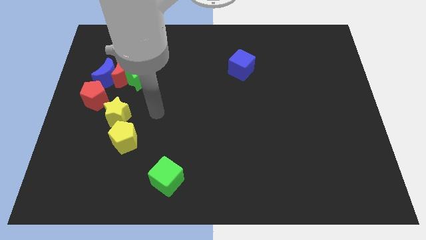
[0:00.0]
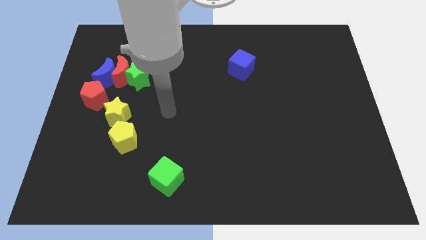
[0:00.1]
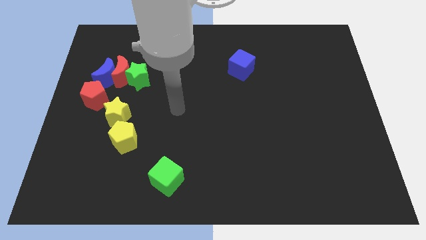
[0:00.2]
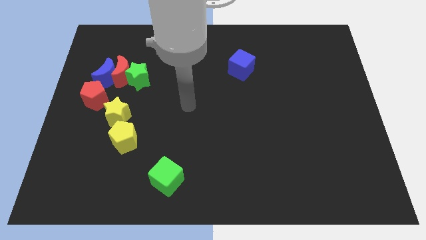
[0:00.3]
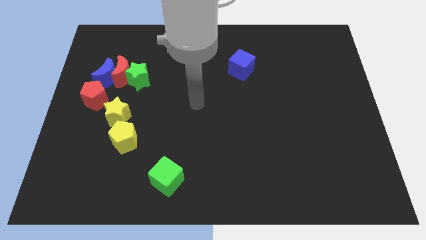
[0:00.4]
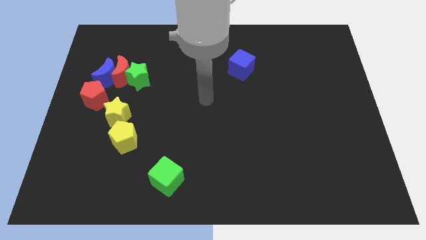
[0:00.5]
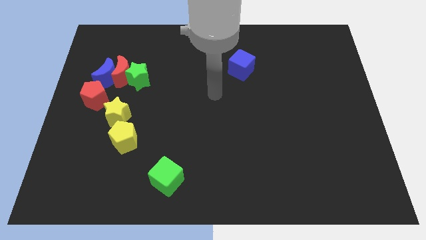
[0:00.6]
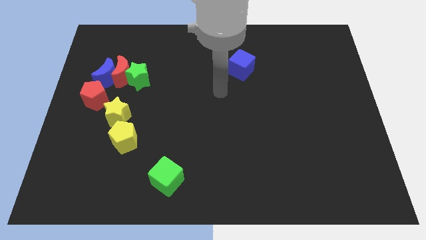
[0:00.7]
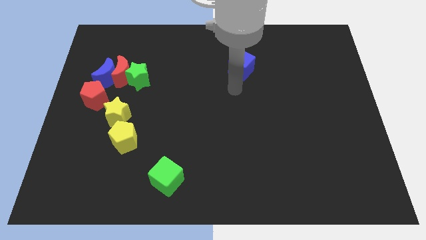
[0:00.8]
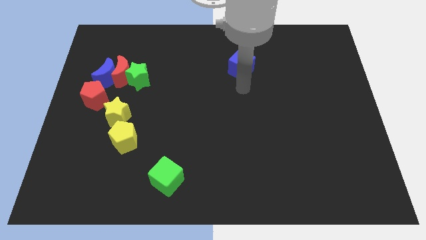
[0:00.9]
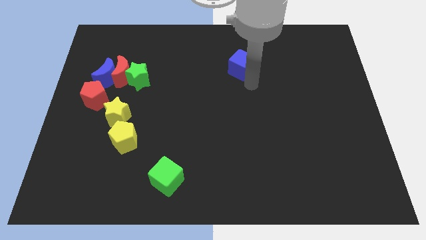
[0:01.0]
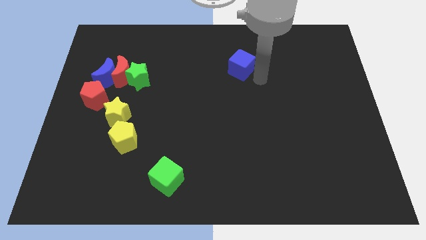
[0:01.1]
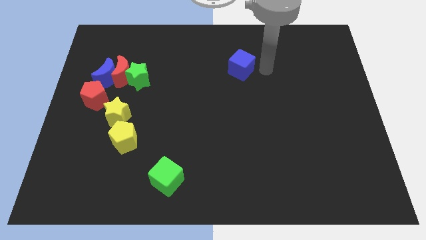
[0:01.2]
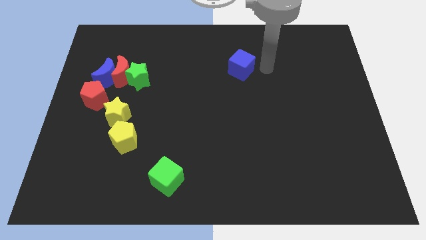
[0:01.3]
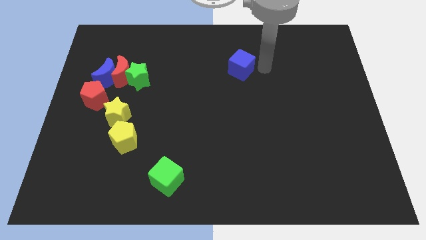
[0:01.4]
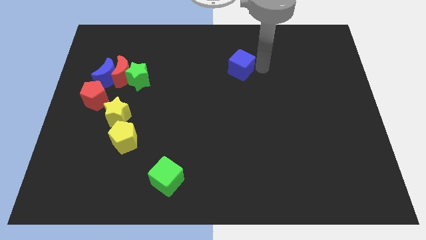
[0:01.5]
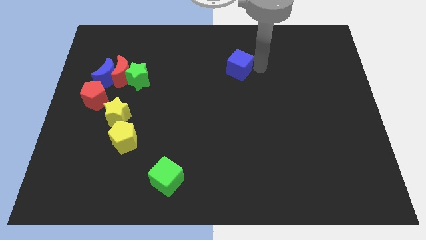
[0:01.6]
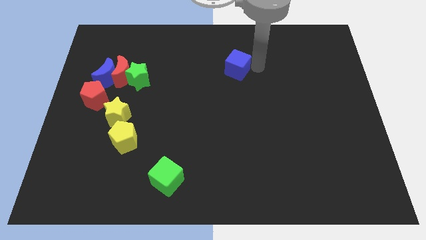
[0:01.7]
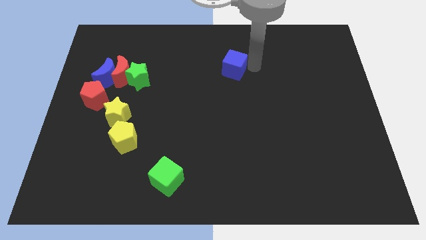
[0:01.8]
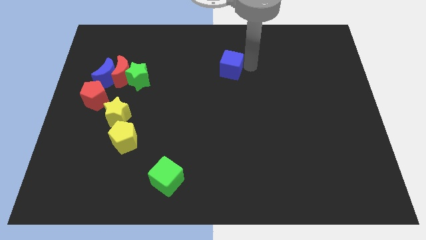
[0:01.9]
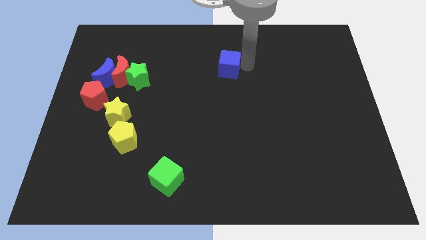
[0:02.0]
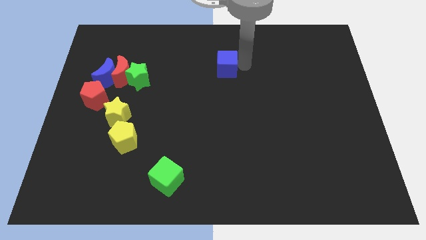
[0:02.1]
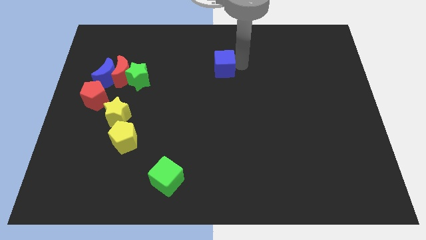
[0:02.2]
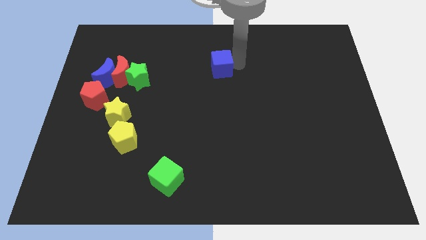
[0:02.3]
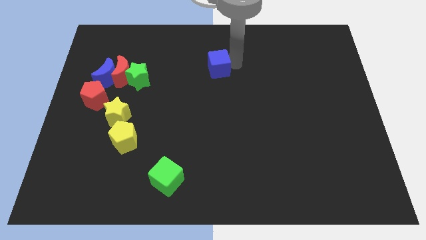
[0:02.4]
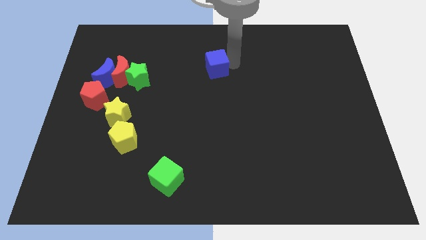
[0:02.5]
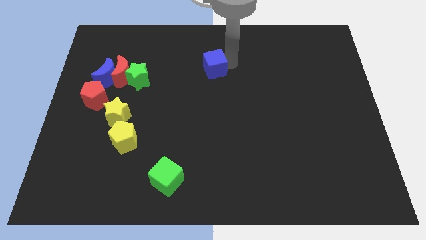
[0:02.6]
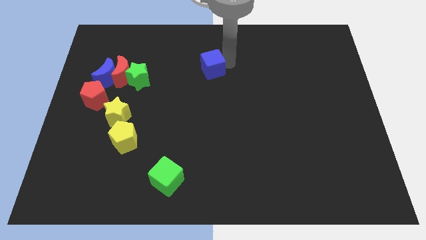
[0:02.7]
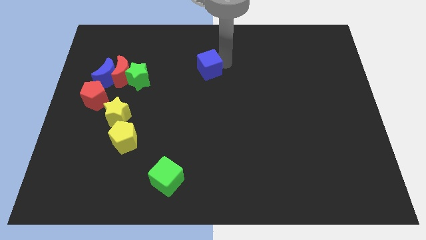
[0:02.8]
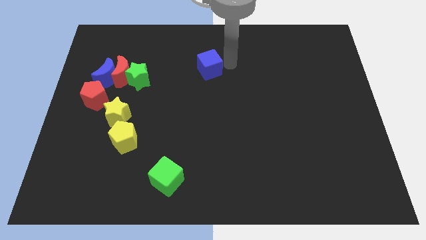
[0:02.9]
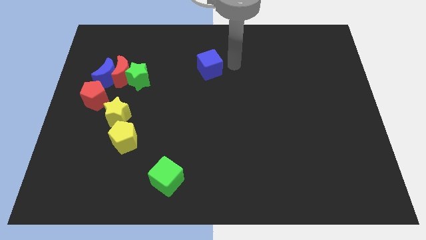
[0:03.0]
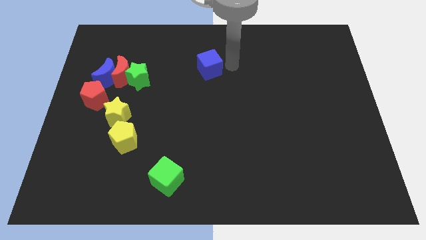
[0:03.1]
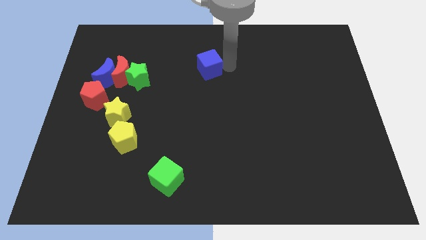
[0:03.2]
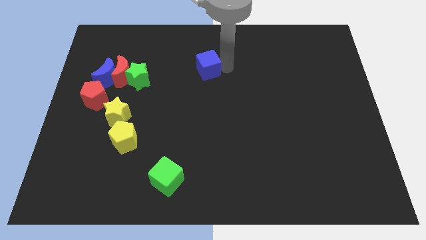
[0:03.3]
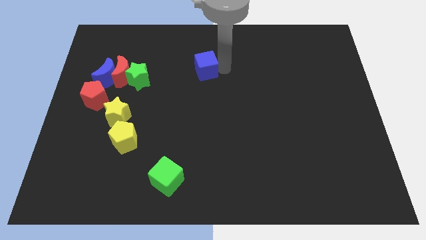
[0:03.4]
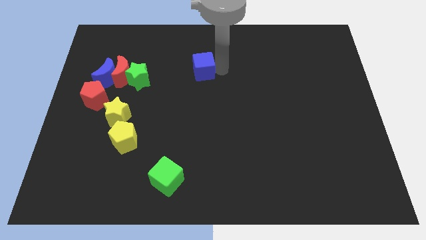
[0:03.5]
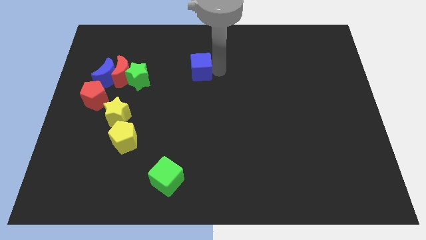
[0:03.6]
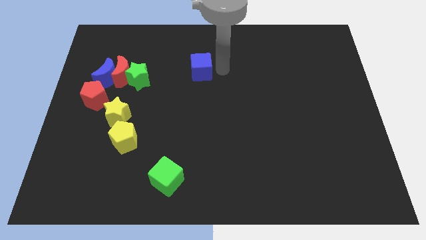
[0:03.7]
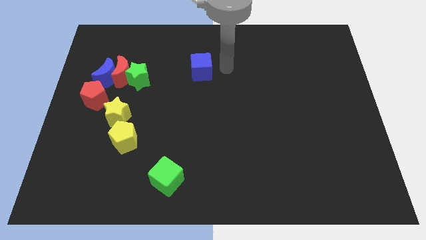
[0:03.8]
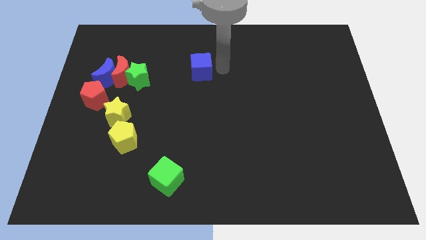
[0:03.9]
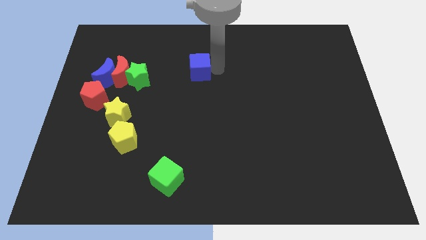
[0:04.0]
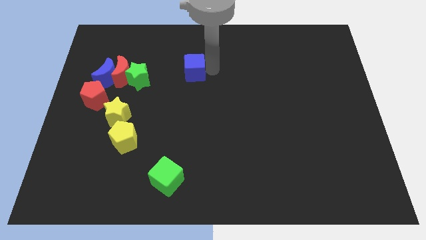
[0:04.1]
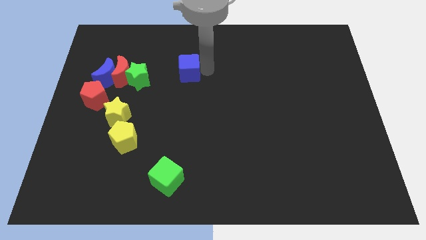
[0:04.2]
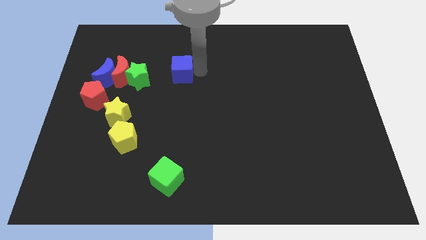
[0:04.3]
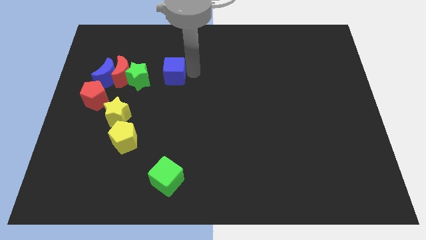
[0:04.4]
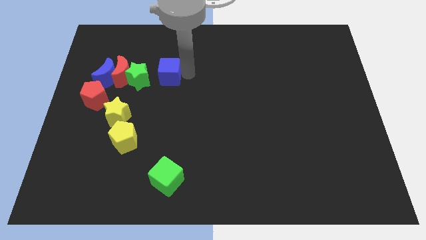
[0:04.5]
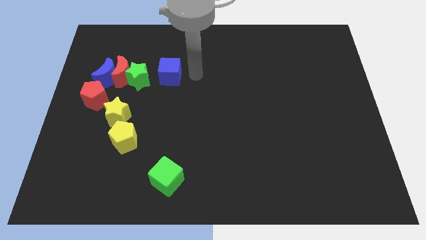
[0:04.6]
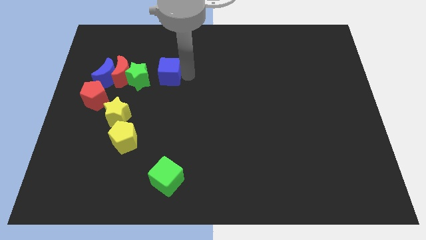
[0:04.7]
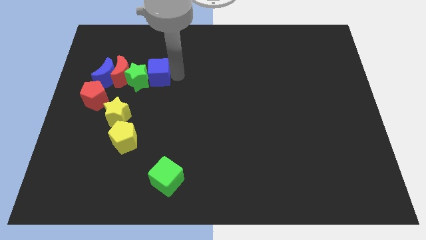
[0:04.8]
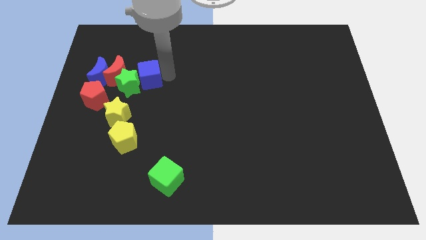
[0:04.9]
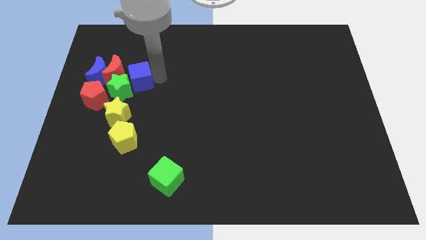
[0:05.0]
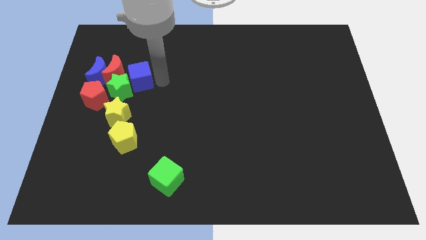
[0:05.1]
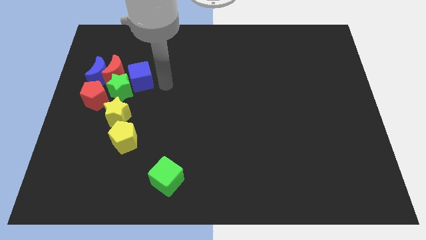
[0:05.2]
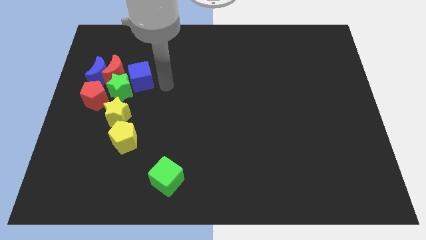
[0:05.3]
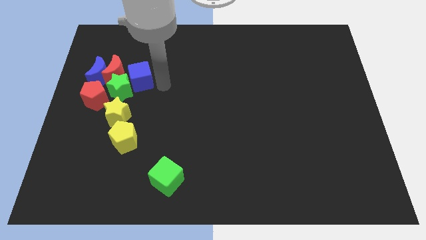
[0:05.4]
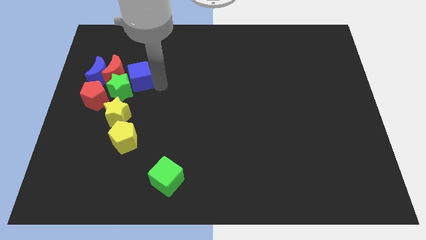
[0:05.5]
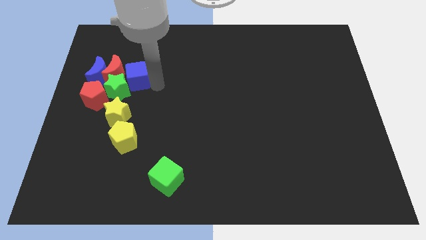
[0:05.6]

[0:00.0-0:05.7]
move the blue cube close to the red moon

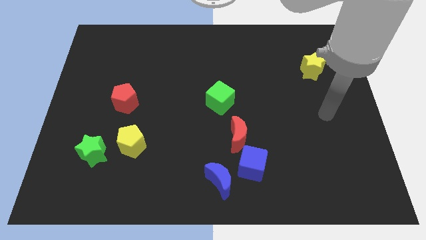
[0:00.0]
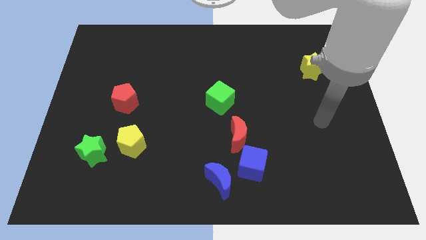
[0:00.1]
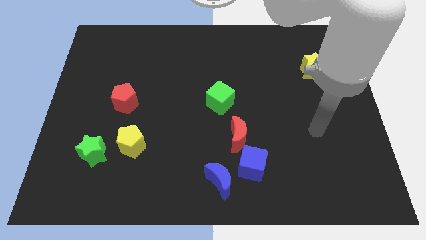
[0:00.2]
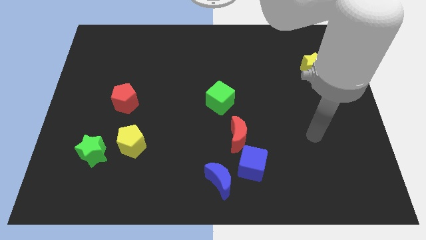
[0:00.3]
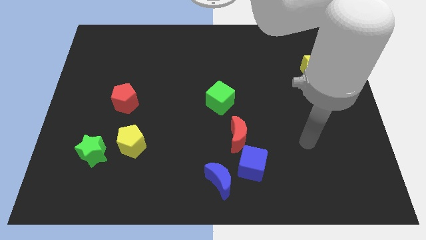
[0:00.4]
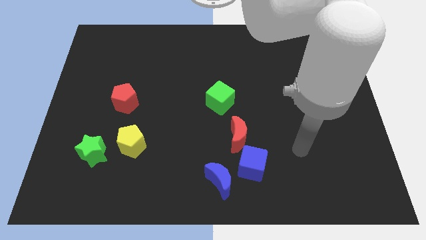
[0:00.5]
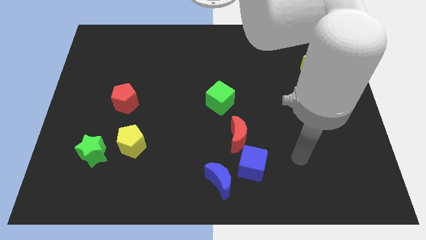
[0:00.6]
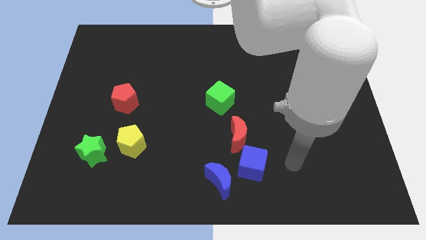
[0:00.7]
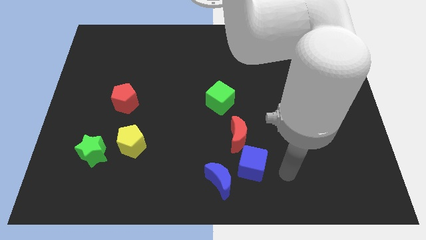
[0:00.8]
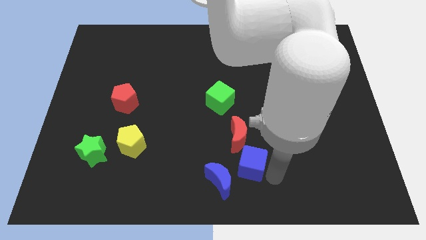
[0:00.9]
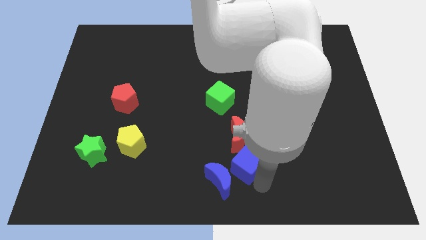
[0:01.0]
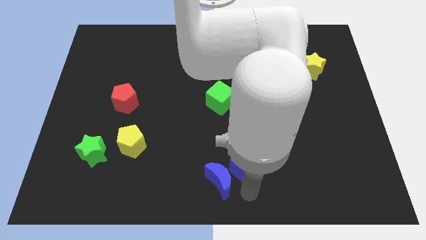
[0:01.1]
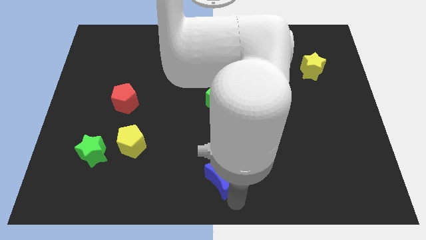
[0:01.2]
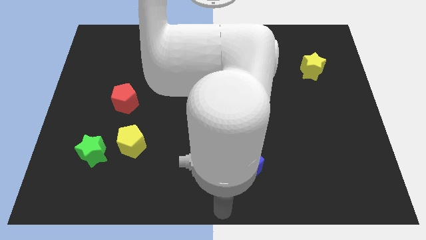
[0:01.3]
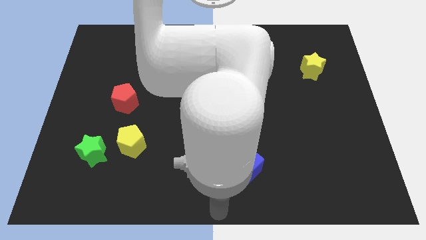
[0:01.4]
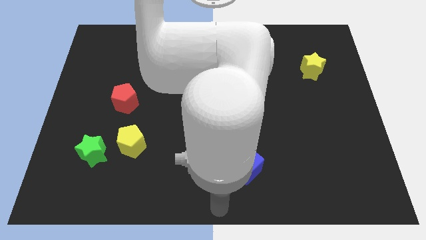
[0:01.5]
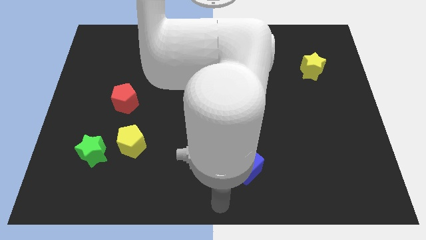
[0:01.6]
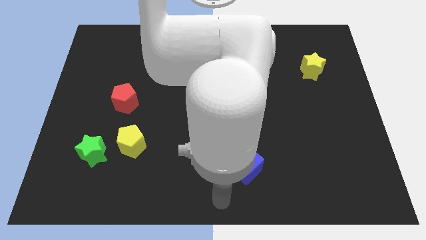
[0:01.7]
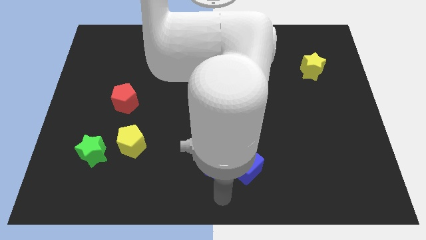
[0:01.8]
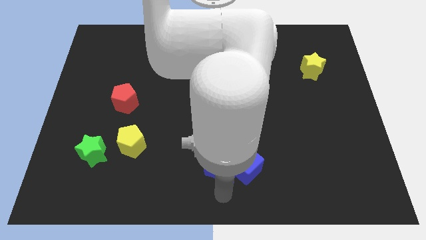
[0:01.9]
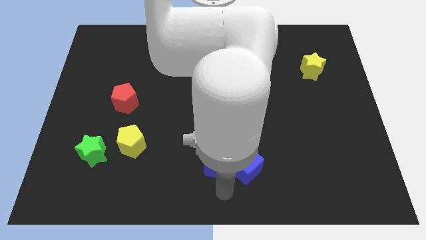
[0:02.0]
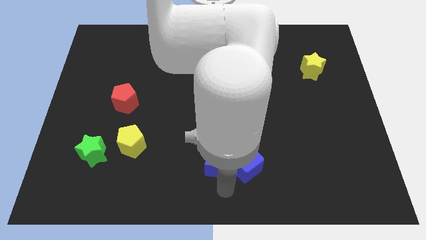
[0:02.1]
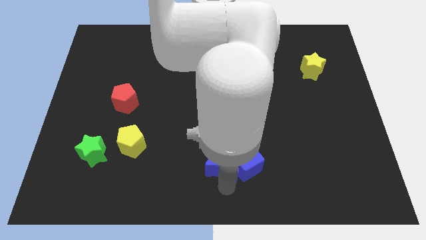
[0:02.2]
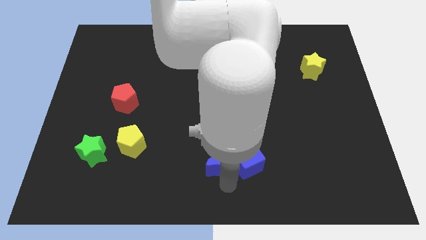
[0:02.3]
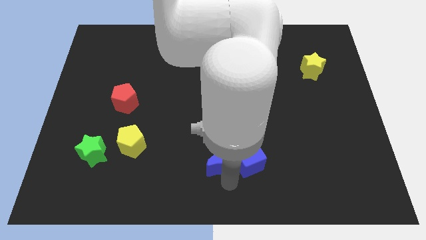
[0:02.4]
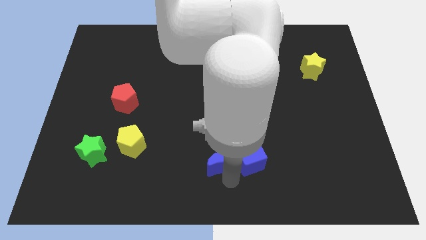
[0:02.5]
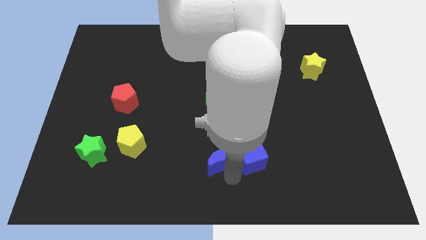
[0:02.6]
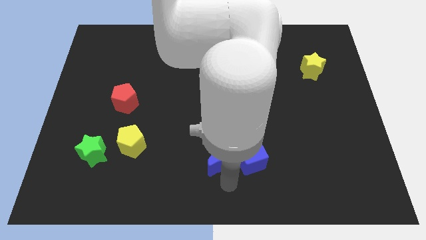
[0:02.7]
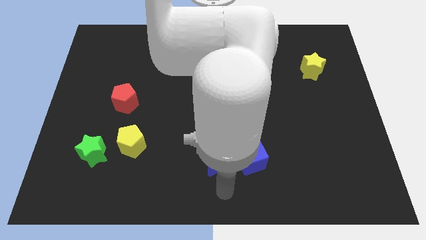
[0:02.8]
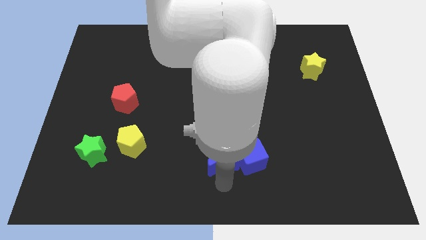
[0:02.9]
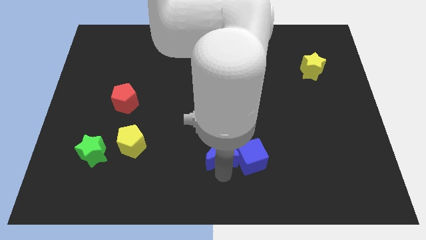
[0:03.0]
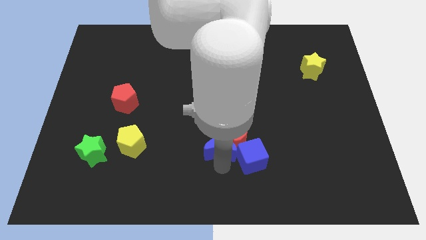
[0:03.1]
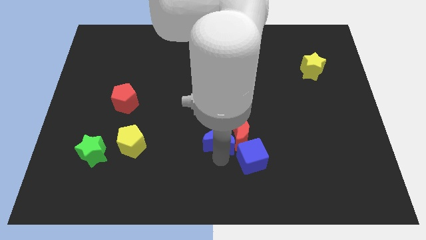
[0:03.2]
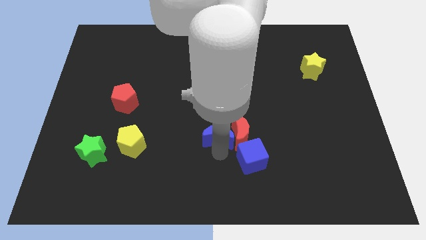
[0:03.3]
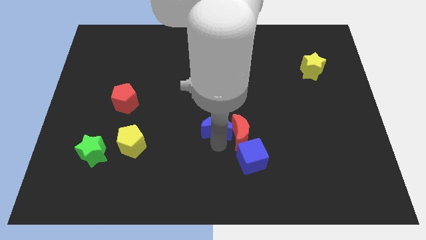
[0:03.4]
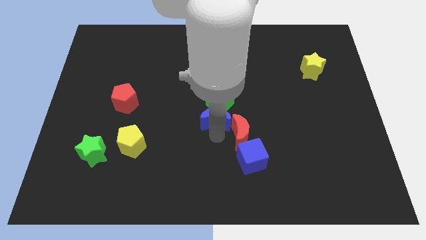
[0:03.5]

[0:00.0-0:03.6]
move the blue moon towards the green cube
